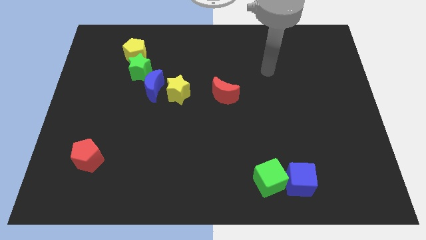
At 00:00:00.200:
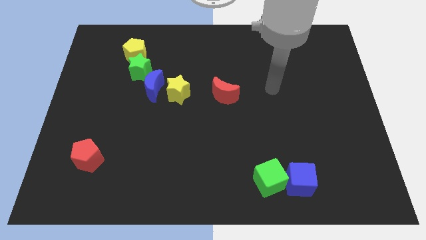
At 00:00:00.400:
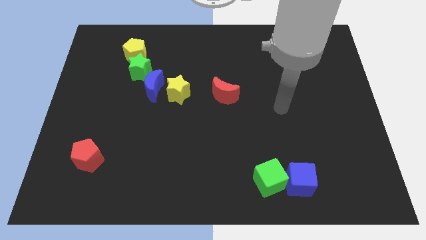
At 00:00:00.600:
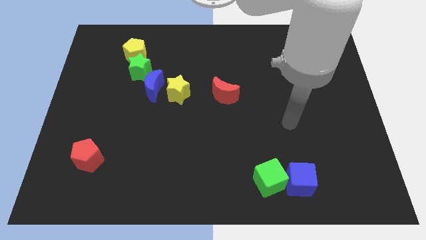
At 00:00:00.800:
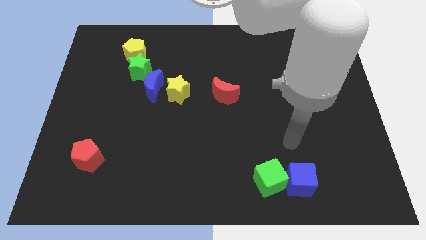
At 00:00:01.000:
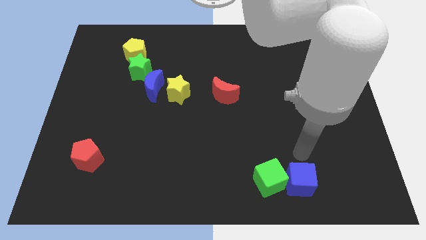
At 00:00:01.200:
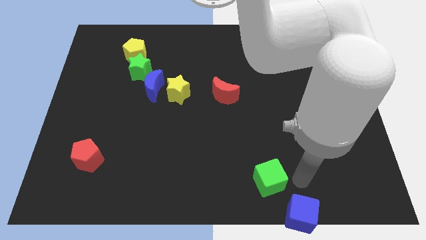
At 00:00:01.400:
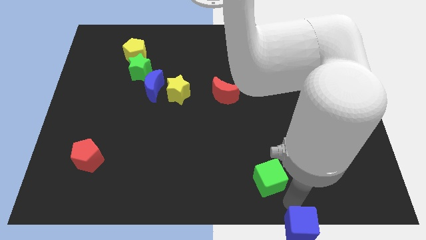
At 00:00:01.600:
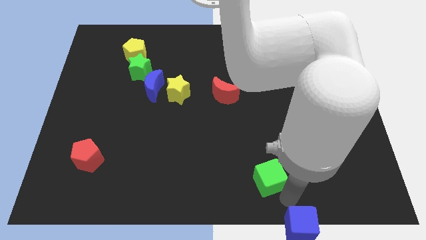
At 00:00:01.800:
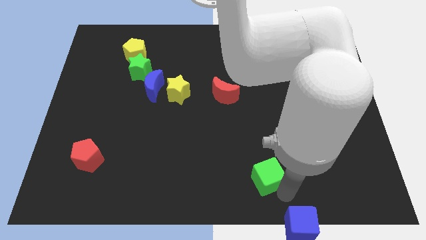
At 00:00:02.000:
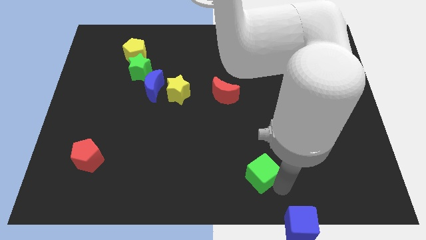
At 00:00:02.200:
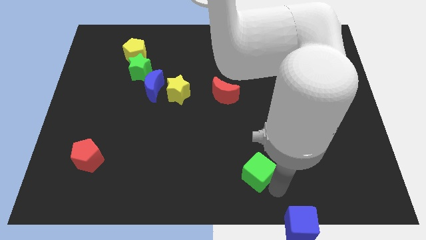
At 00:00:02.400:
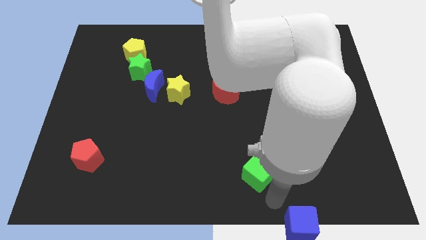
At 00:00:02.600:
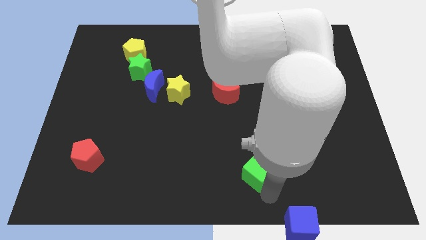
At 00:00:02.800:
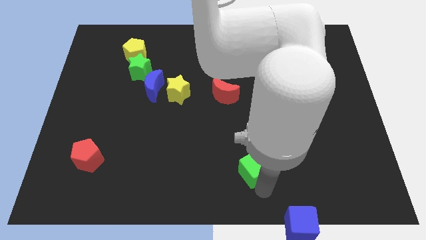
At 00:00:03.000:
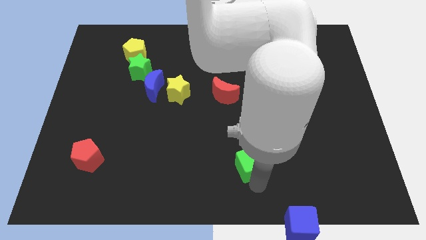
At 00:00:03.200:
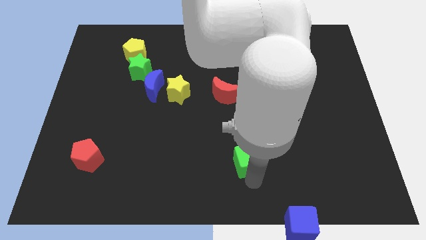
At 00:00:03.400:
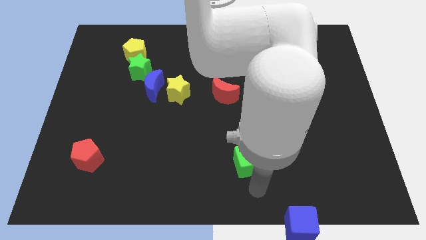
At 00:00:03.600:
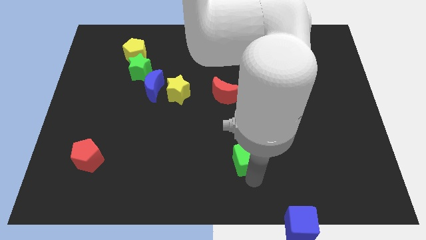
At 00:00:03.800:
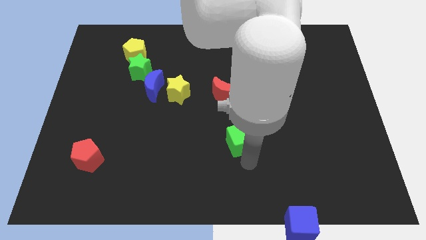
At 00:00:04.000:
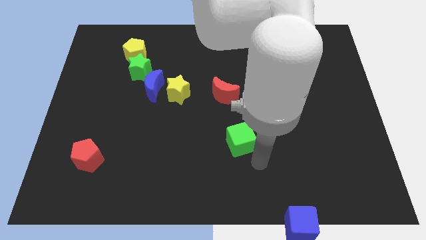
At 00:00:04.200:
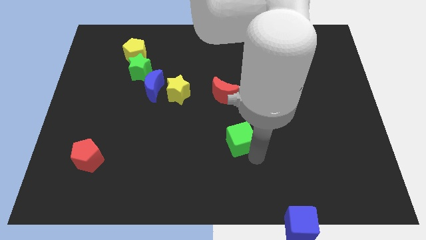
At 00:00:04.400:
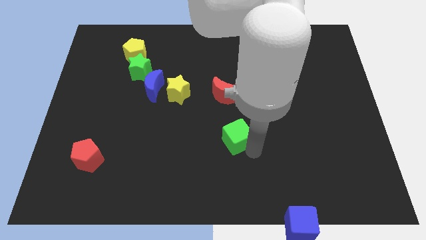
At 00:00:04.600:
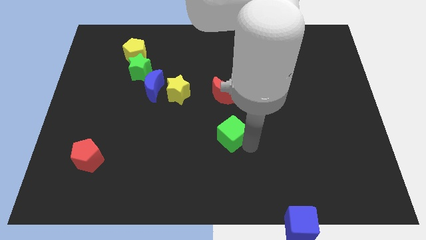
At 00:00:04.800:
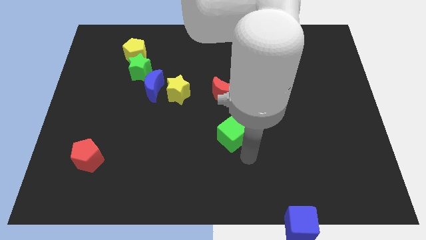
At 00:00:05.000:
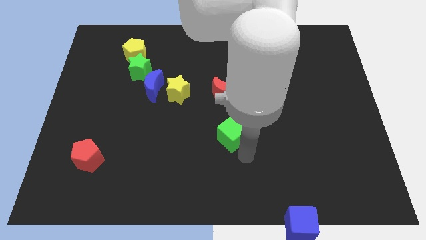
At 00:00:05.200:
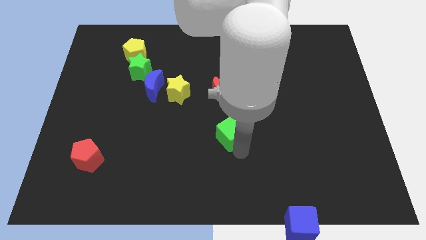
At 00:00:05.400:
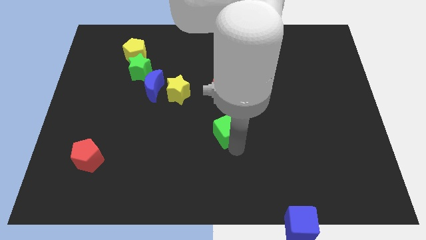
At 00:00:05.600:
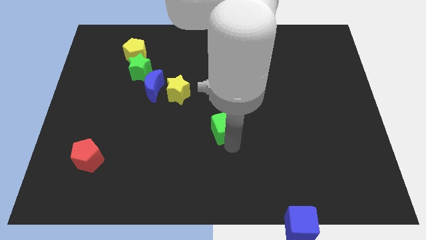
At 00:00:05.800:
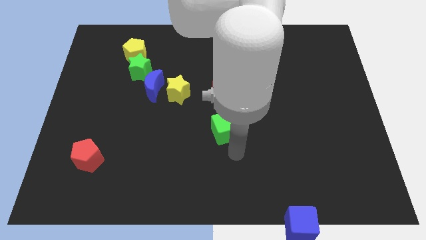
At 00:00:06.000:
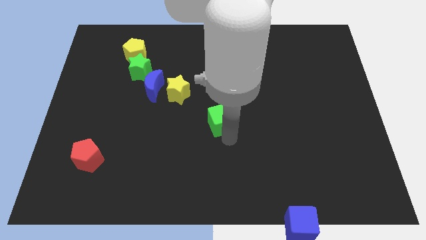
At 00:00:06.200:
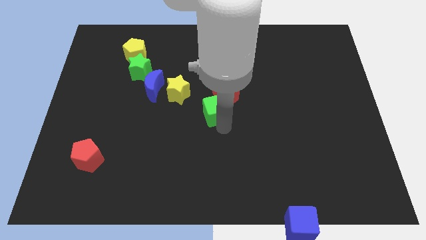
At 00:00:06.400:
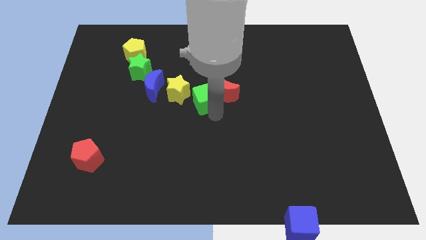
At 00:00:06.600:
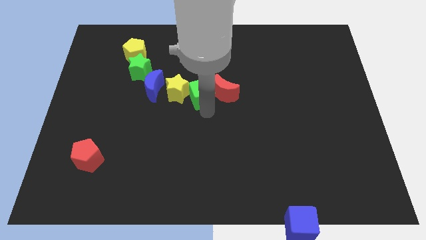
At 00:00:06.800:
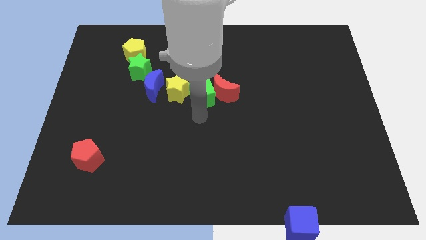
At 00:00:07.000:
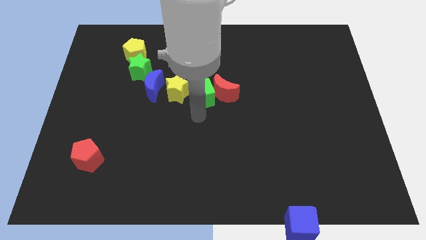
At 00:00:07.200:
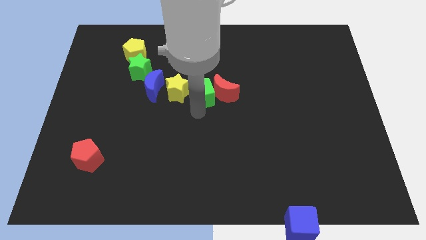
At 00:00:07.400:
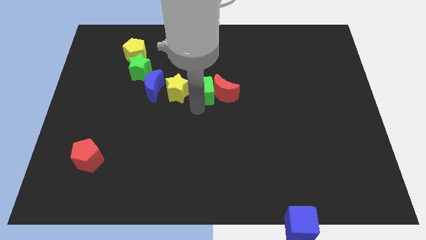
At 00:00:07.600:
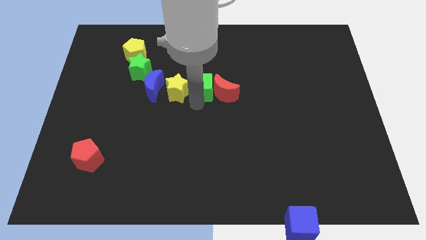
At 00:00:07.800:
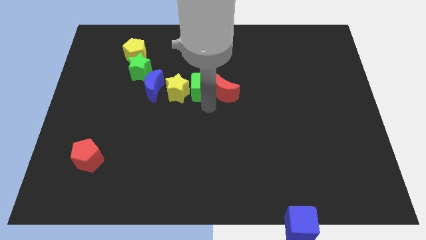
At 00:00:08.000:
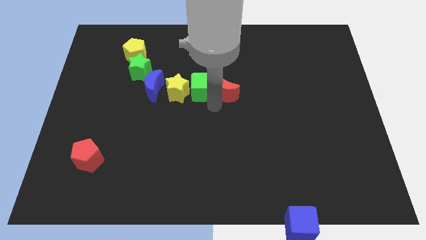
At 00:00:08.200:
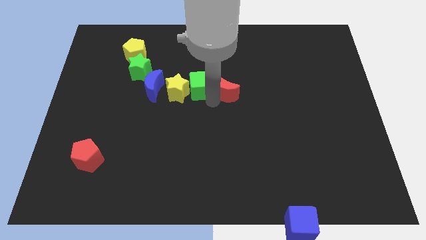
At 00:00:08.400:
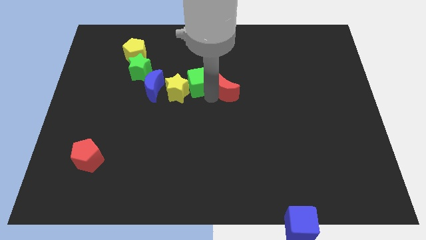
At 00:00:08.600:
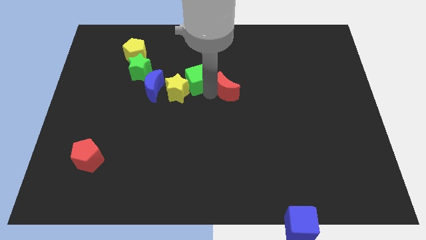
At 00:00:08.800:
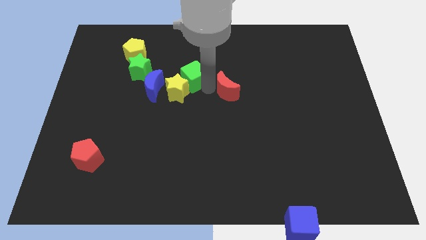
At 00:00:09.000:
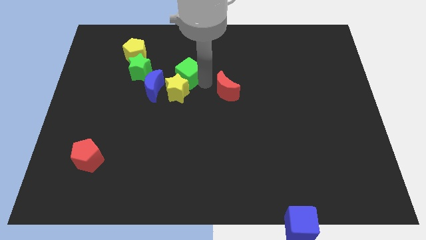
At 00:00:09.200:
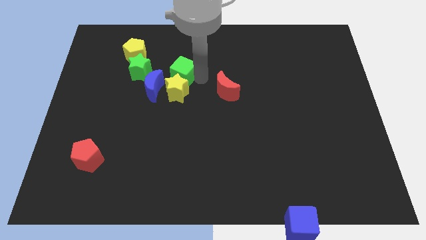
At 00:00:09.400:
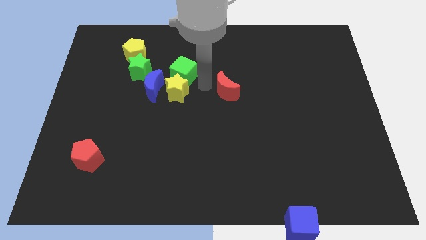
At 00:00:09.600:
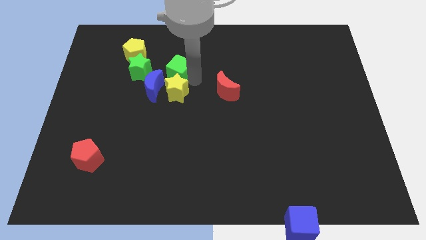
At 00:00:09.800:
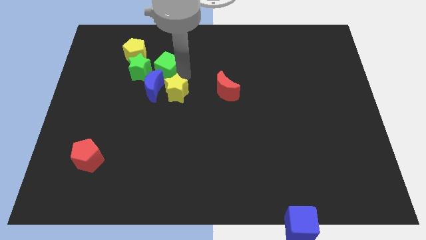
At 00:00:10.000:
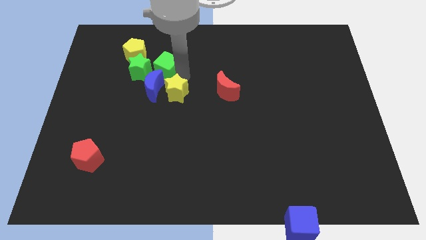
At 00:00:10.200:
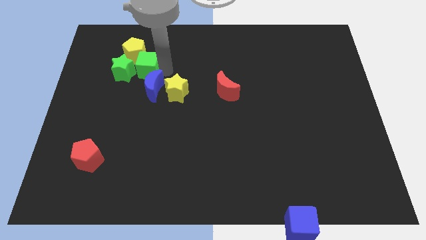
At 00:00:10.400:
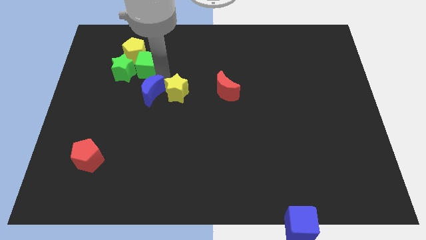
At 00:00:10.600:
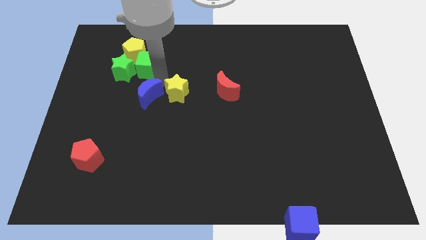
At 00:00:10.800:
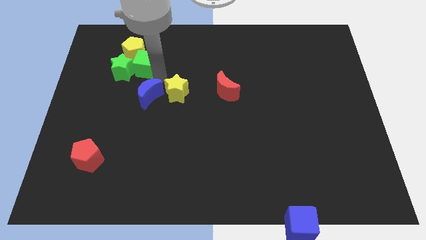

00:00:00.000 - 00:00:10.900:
push the green cube towards the yellow pentagon

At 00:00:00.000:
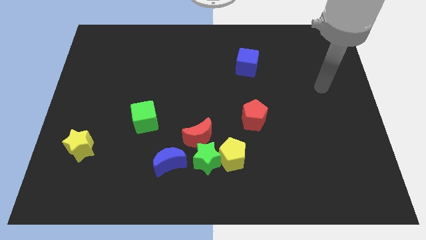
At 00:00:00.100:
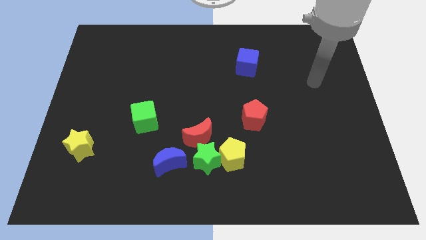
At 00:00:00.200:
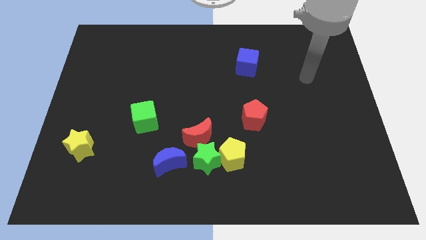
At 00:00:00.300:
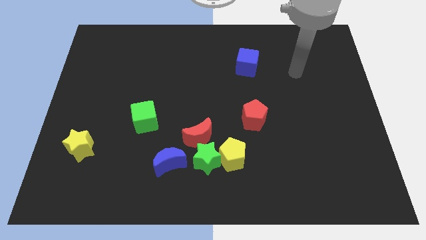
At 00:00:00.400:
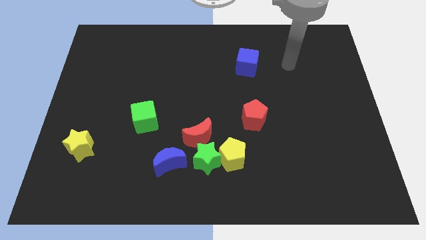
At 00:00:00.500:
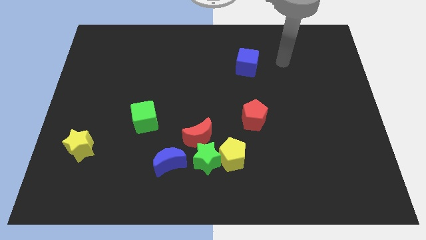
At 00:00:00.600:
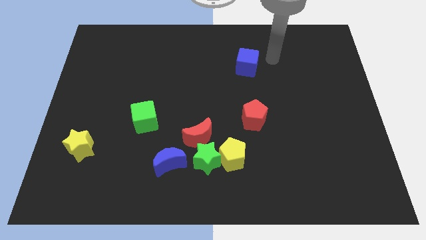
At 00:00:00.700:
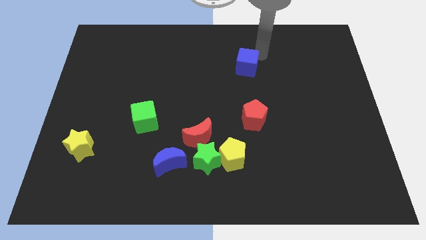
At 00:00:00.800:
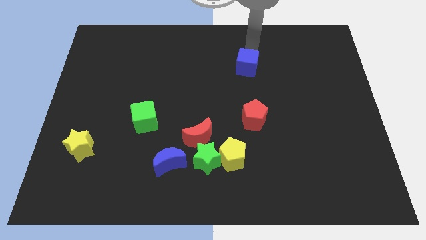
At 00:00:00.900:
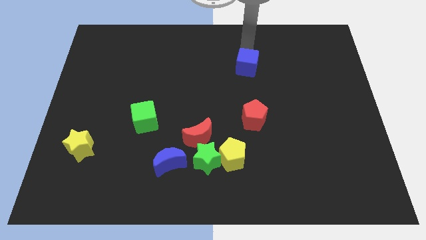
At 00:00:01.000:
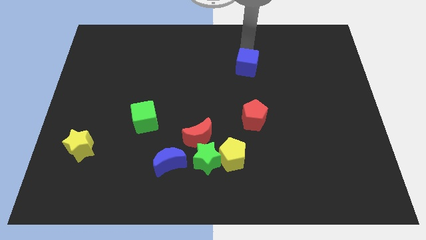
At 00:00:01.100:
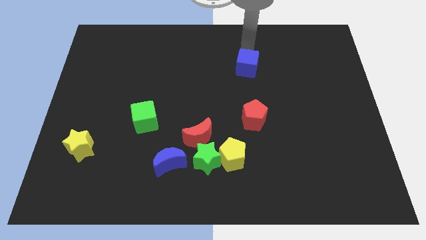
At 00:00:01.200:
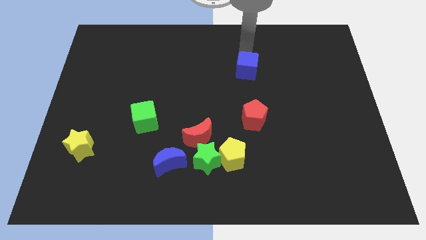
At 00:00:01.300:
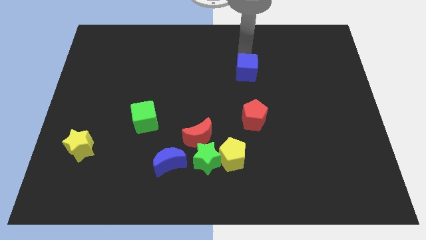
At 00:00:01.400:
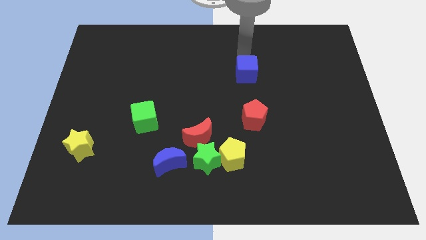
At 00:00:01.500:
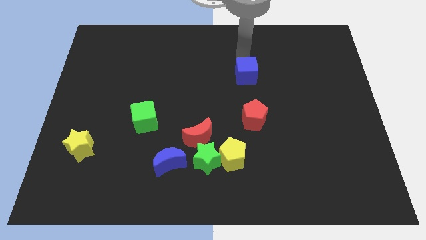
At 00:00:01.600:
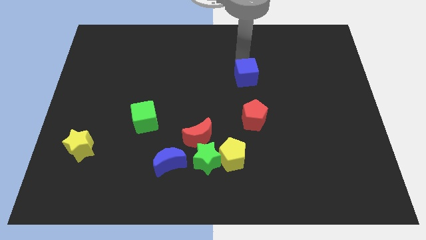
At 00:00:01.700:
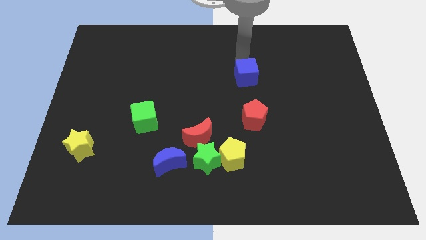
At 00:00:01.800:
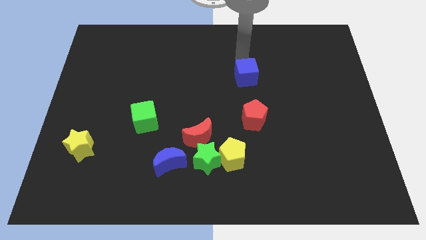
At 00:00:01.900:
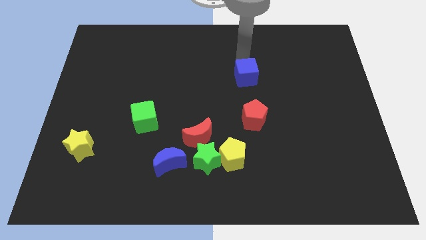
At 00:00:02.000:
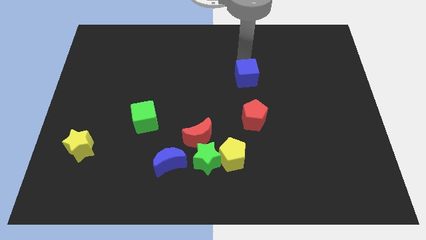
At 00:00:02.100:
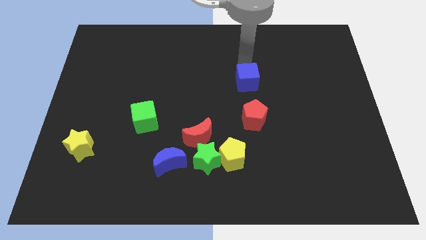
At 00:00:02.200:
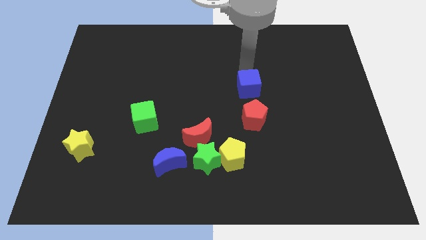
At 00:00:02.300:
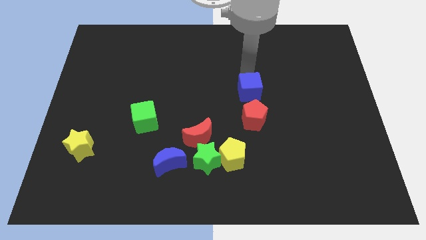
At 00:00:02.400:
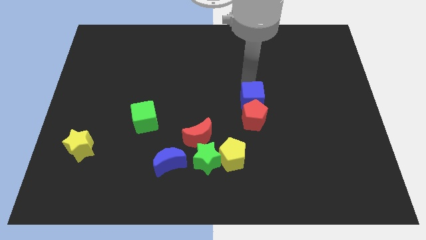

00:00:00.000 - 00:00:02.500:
put the blue cube to the red pentagon
